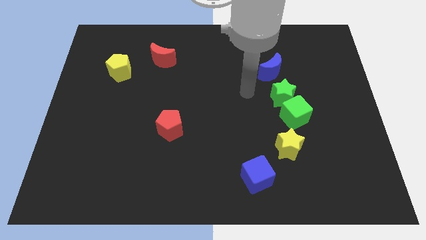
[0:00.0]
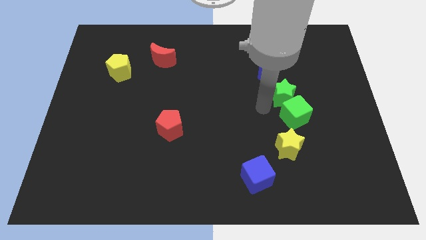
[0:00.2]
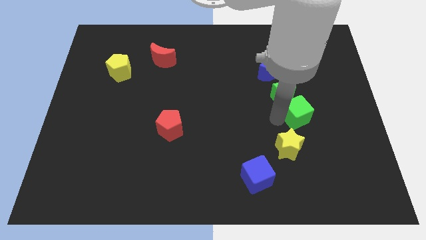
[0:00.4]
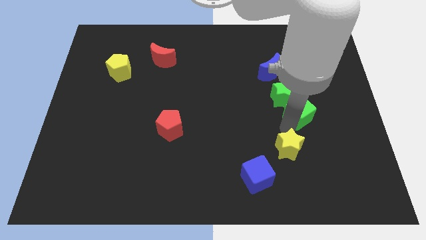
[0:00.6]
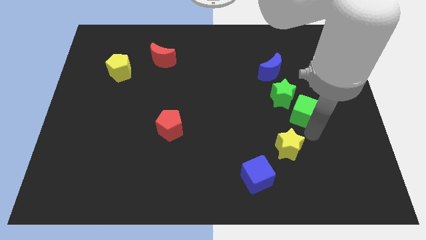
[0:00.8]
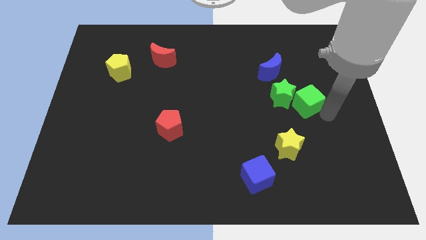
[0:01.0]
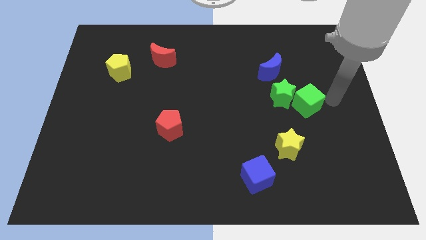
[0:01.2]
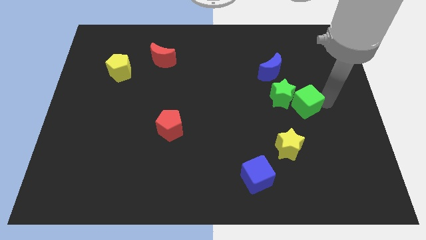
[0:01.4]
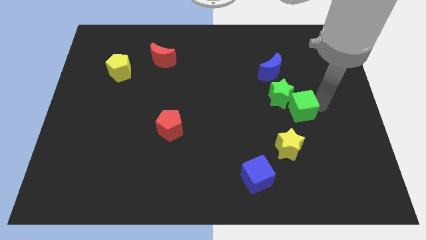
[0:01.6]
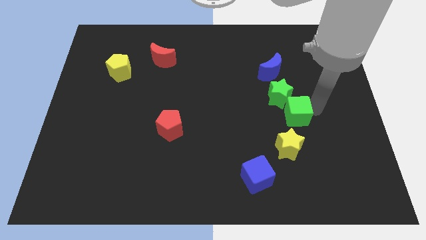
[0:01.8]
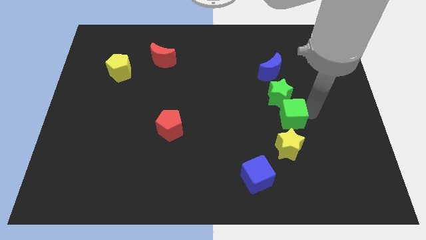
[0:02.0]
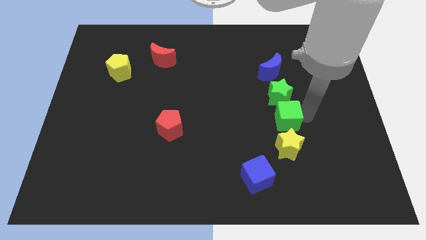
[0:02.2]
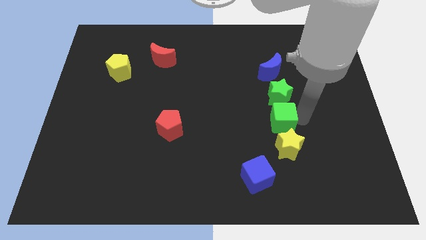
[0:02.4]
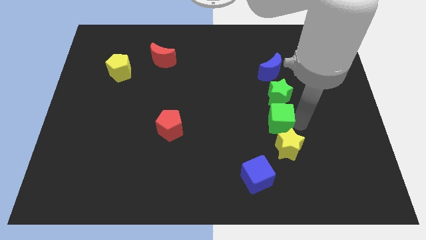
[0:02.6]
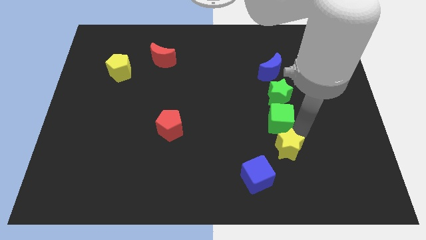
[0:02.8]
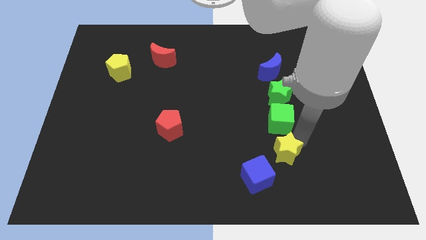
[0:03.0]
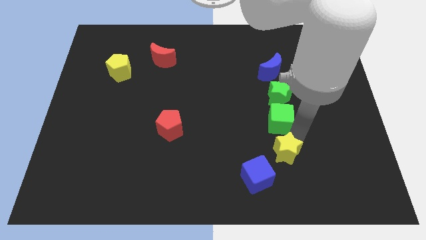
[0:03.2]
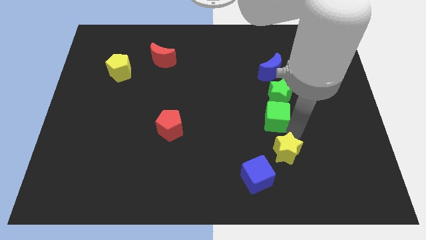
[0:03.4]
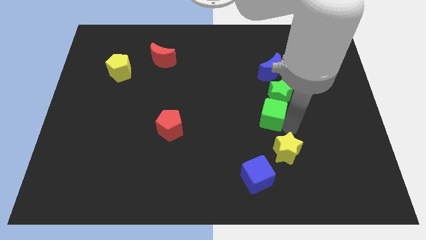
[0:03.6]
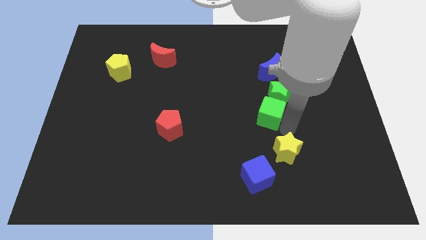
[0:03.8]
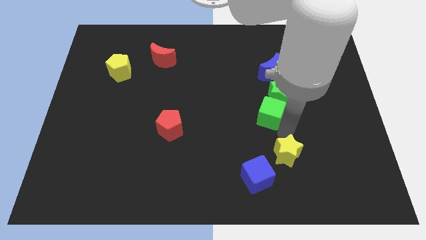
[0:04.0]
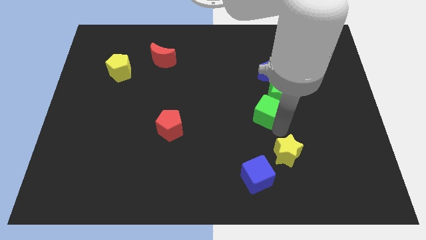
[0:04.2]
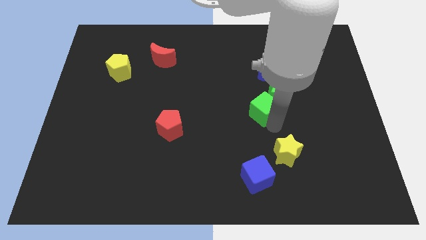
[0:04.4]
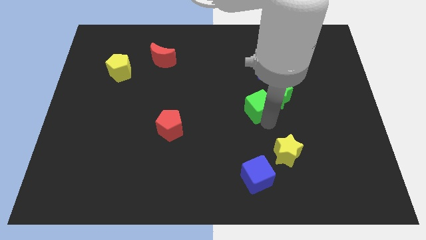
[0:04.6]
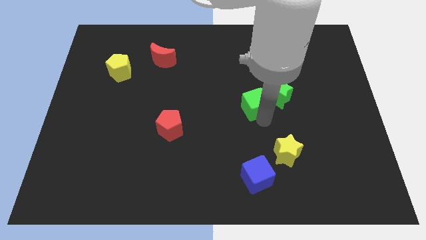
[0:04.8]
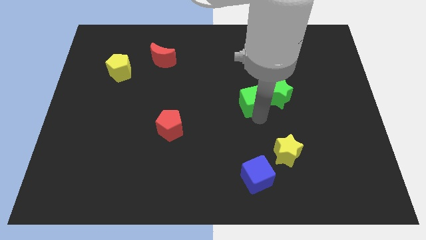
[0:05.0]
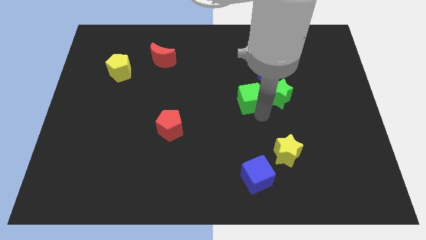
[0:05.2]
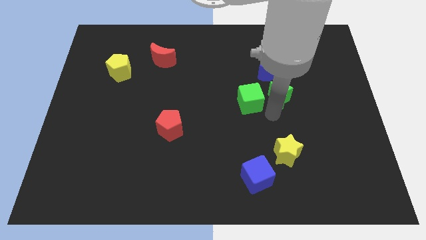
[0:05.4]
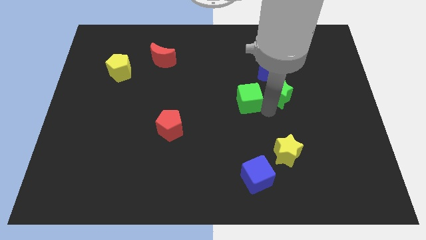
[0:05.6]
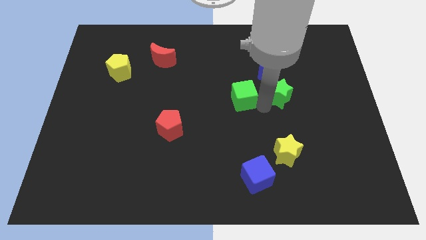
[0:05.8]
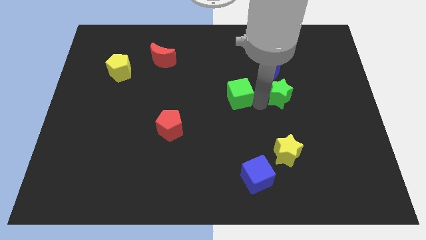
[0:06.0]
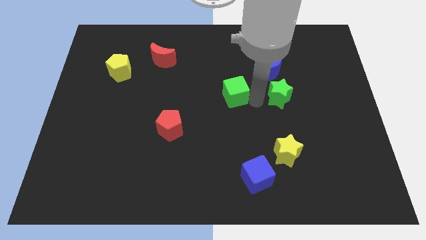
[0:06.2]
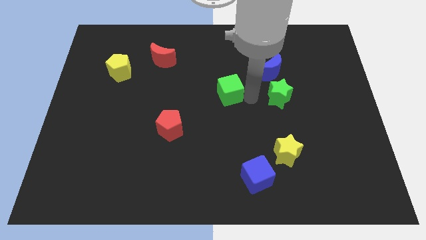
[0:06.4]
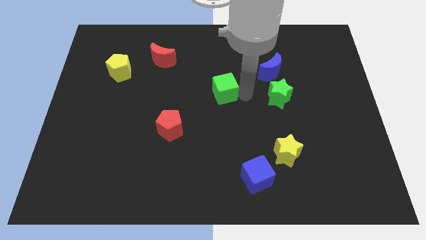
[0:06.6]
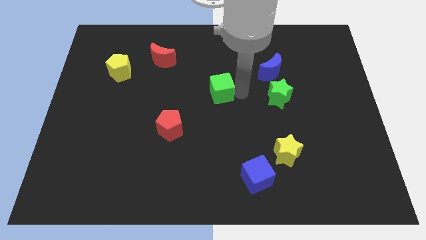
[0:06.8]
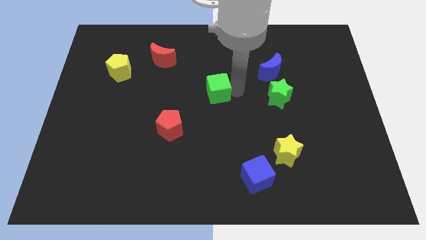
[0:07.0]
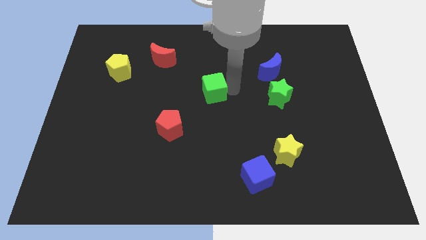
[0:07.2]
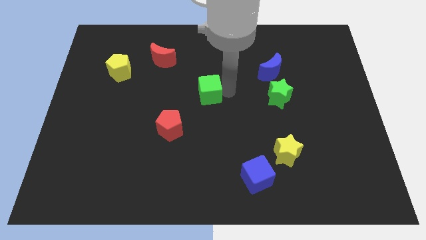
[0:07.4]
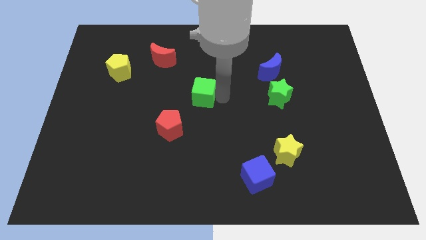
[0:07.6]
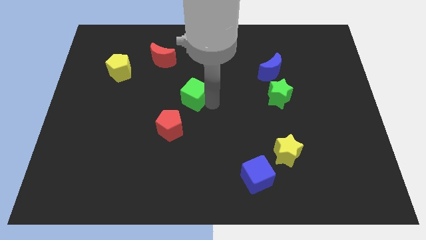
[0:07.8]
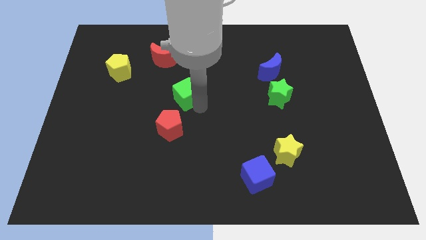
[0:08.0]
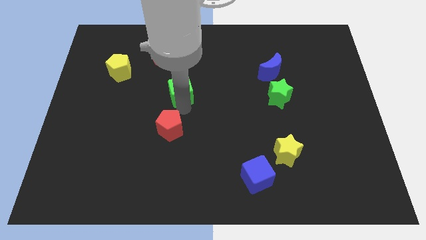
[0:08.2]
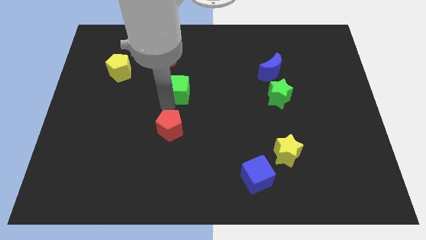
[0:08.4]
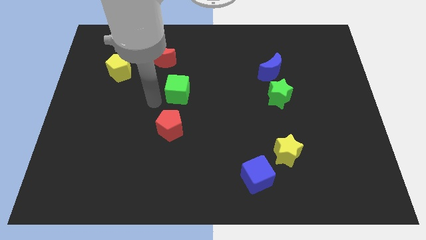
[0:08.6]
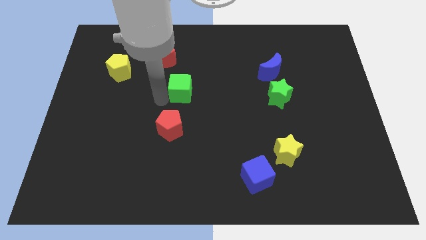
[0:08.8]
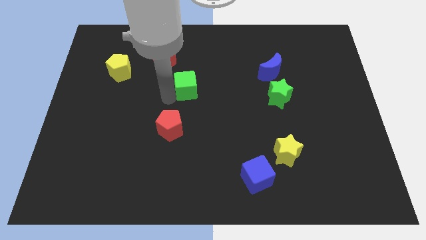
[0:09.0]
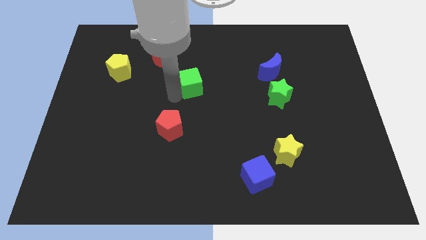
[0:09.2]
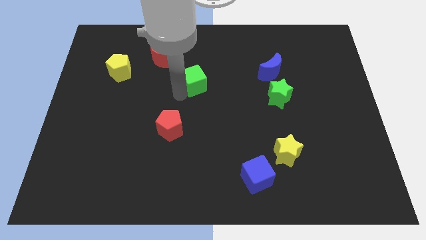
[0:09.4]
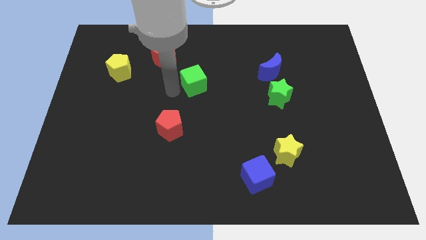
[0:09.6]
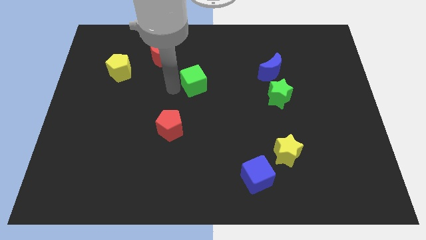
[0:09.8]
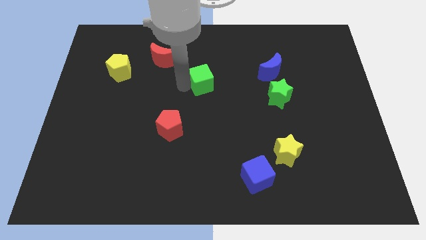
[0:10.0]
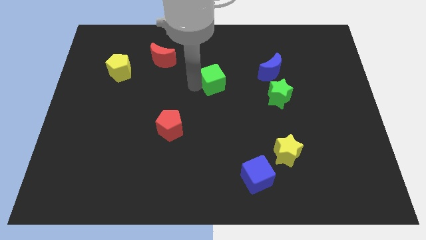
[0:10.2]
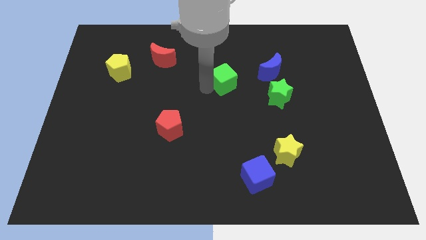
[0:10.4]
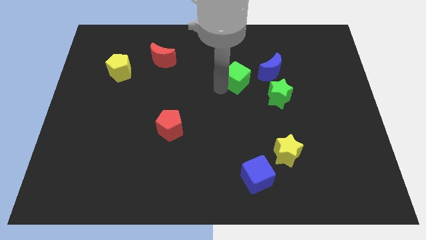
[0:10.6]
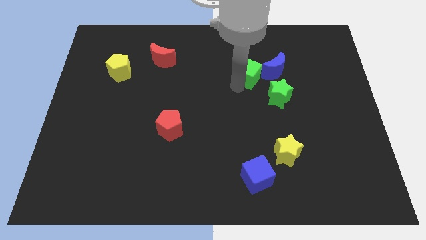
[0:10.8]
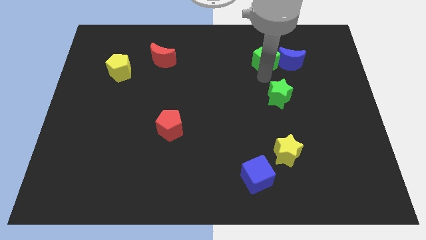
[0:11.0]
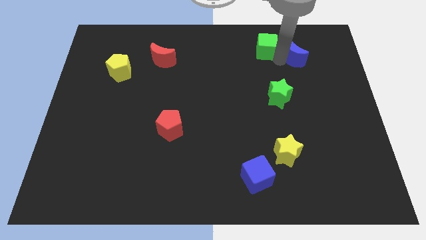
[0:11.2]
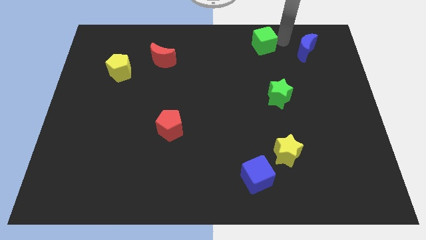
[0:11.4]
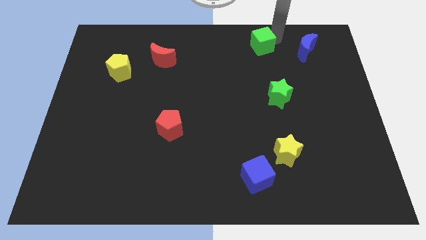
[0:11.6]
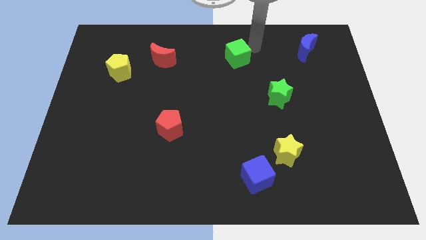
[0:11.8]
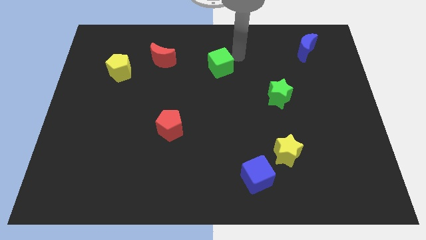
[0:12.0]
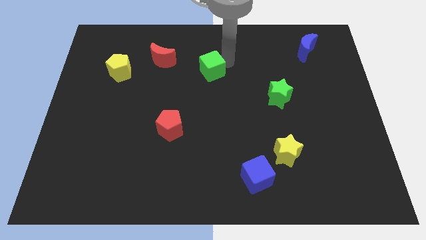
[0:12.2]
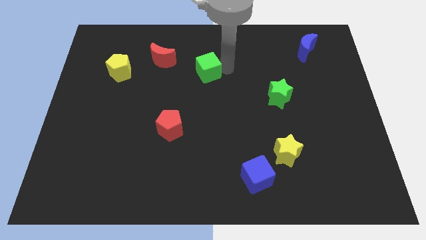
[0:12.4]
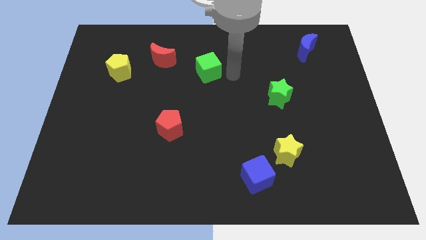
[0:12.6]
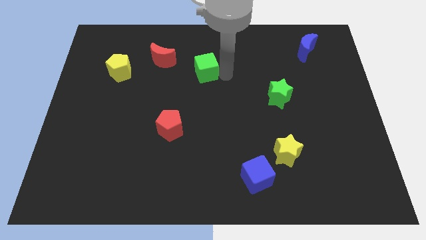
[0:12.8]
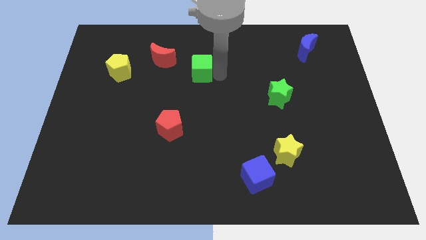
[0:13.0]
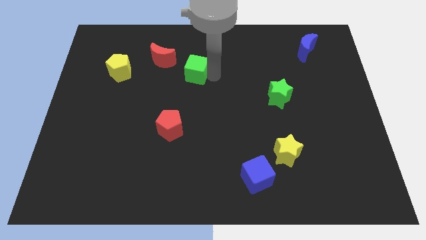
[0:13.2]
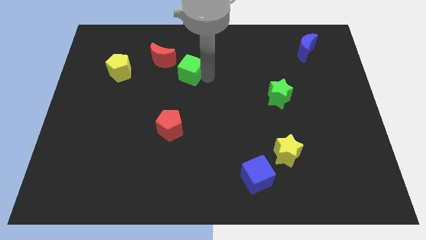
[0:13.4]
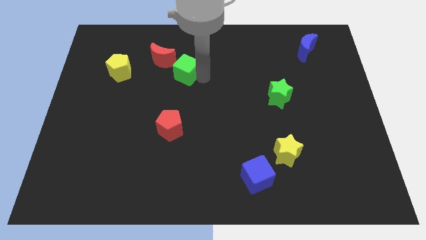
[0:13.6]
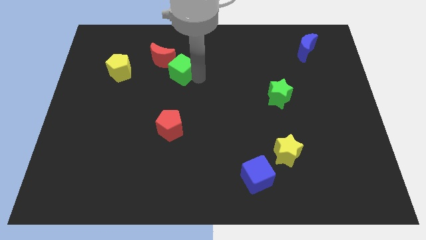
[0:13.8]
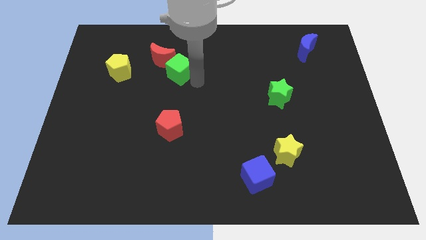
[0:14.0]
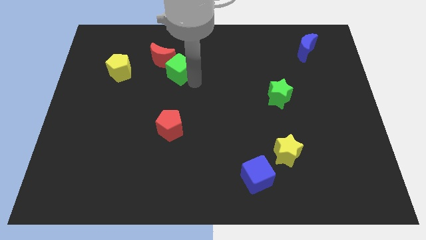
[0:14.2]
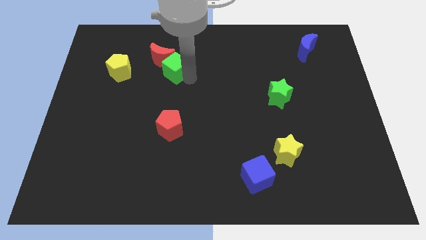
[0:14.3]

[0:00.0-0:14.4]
put the green cube close to the red moon
